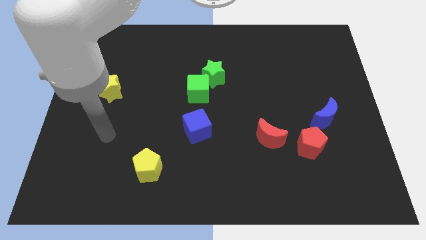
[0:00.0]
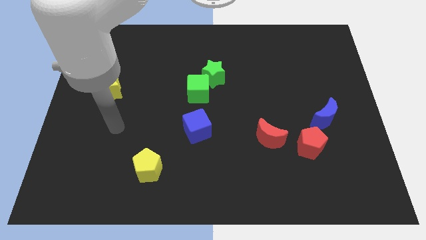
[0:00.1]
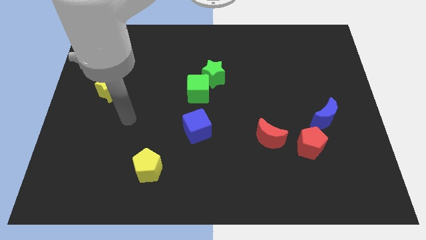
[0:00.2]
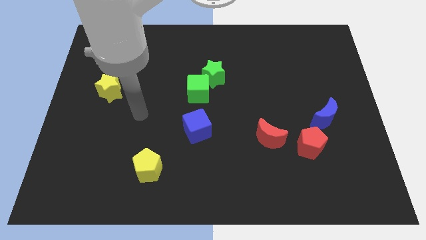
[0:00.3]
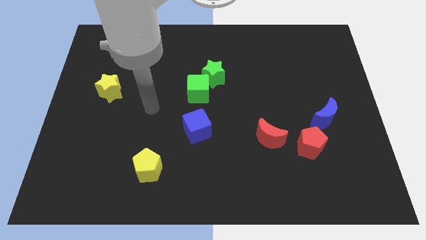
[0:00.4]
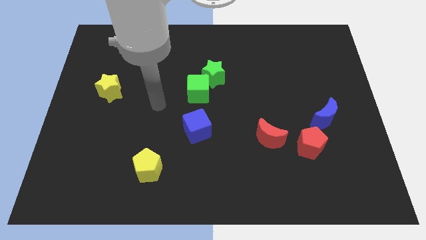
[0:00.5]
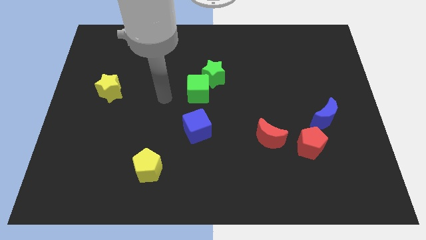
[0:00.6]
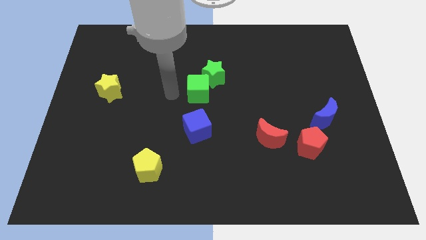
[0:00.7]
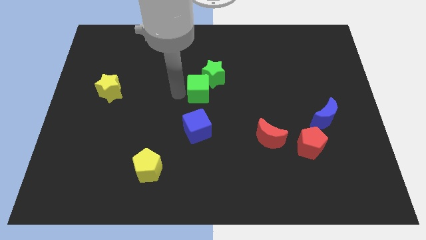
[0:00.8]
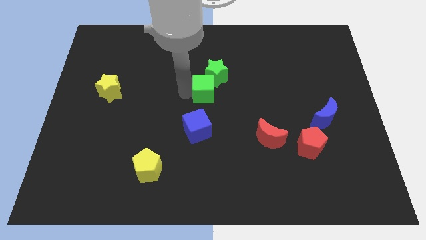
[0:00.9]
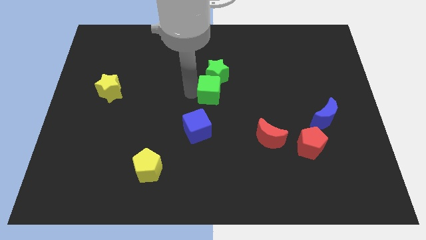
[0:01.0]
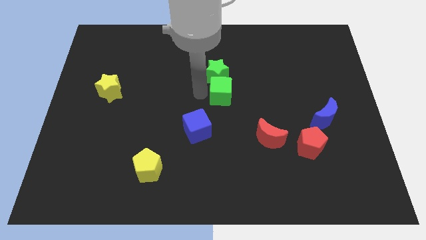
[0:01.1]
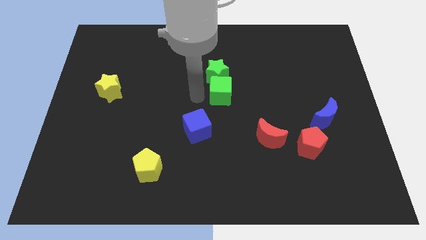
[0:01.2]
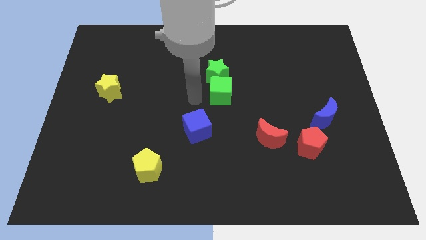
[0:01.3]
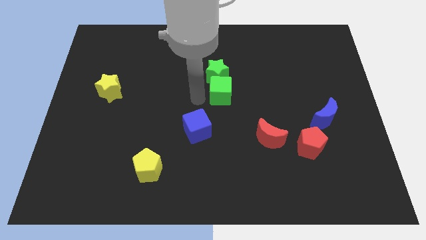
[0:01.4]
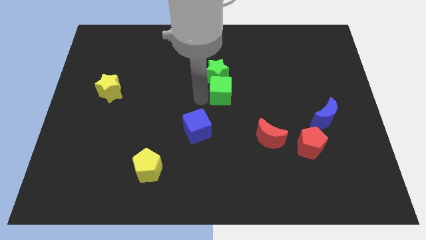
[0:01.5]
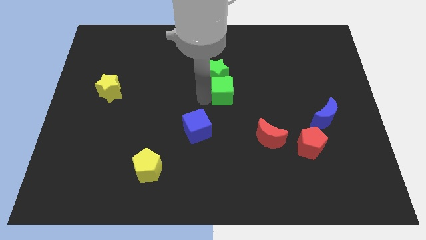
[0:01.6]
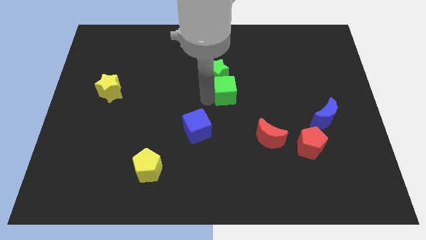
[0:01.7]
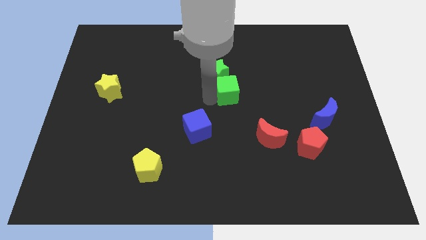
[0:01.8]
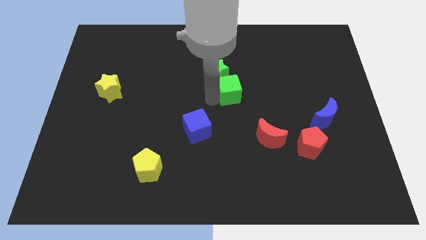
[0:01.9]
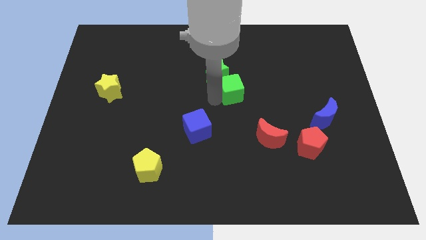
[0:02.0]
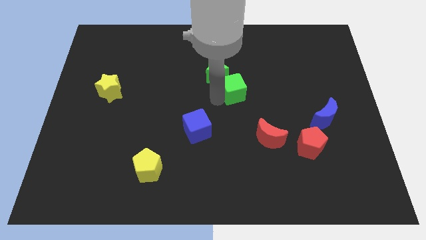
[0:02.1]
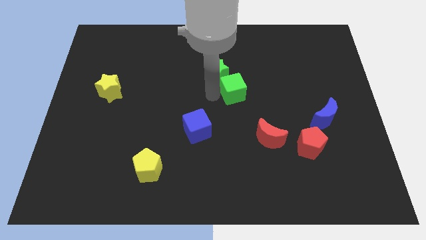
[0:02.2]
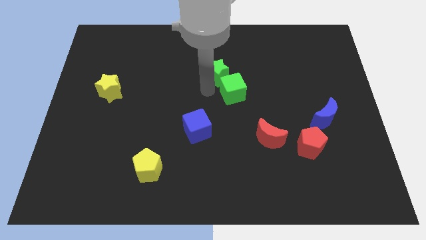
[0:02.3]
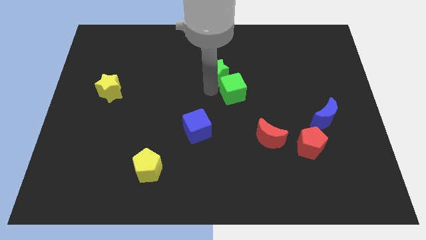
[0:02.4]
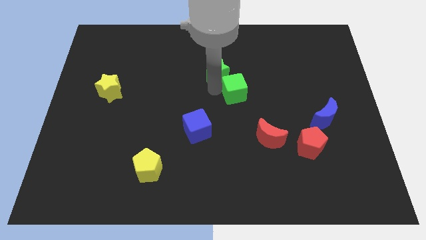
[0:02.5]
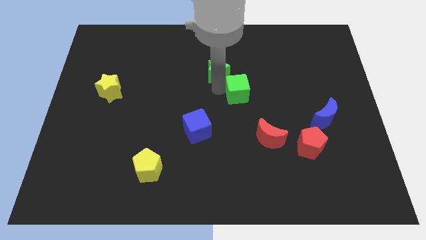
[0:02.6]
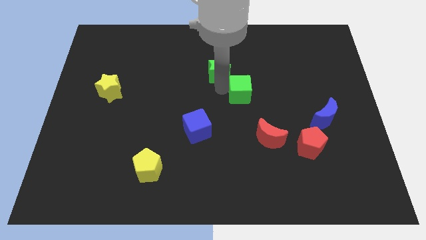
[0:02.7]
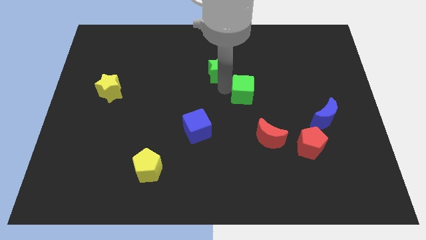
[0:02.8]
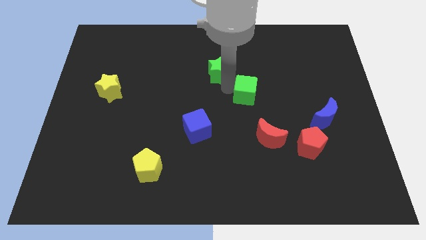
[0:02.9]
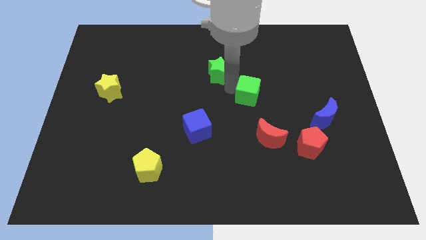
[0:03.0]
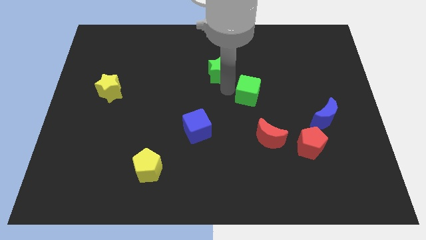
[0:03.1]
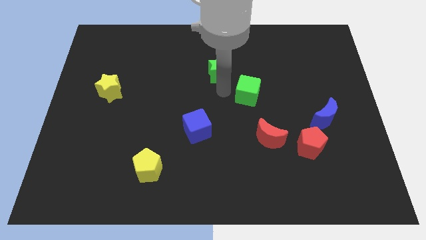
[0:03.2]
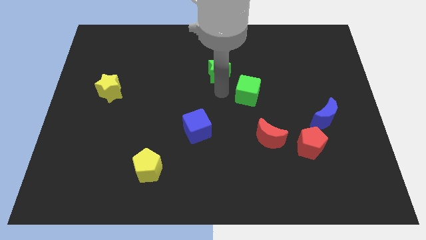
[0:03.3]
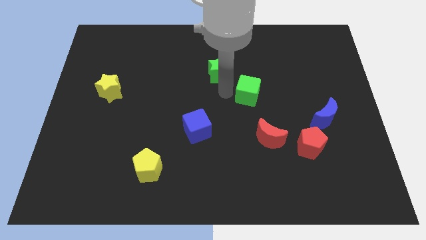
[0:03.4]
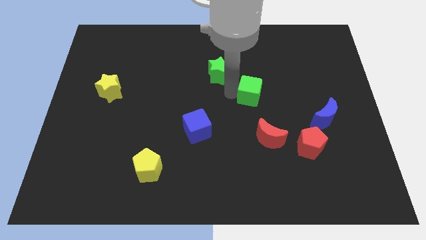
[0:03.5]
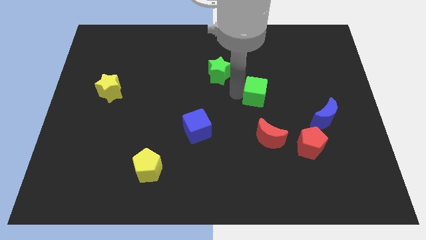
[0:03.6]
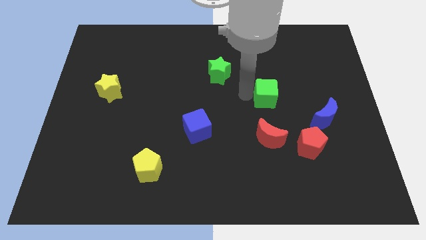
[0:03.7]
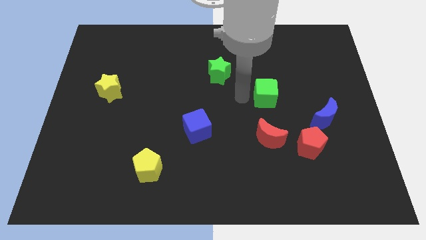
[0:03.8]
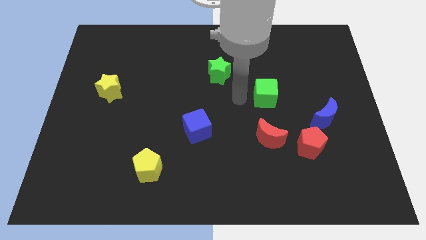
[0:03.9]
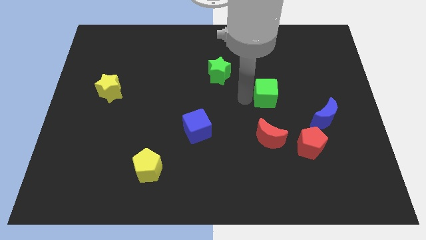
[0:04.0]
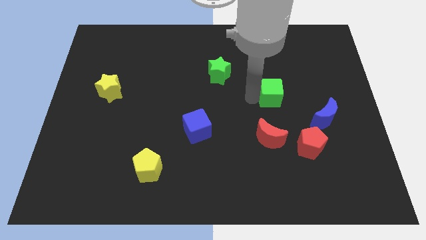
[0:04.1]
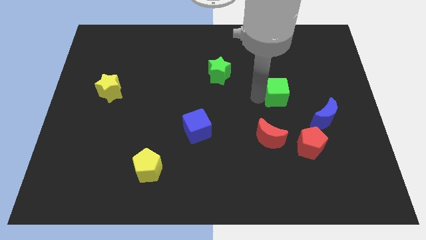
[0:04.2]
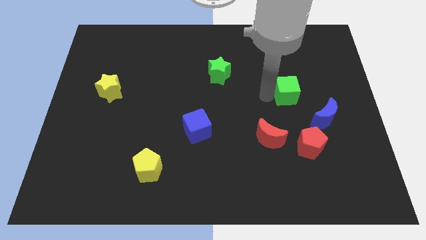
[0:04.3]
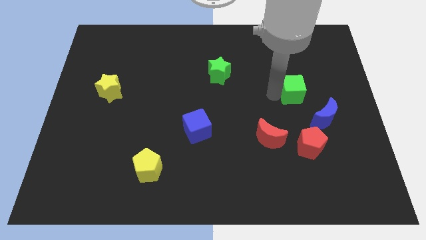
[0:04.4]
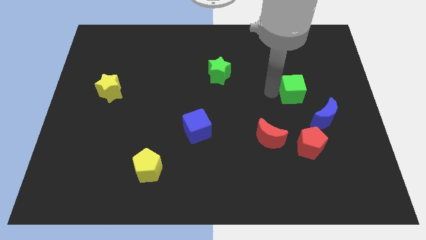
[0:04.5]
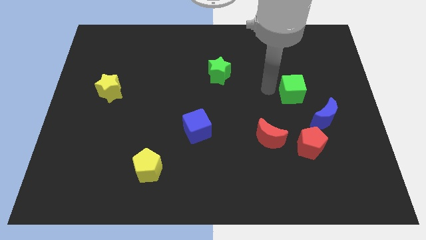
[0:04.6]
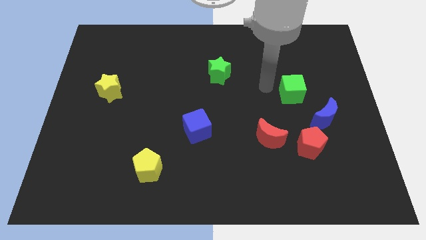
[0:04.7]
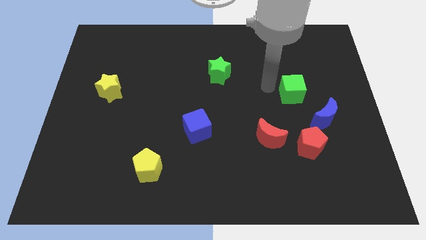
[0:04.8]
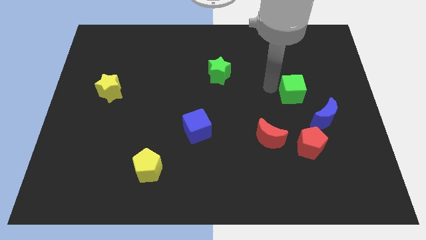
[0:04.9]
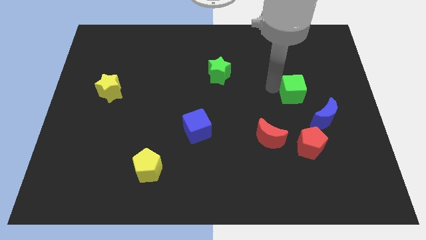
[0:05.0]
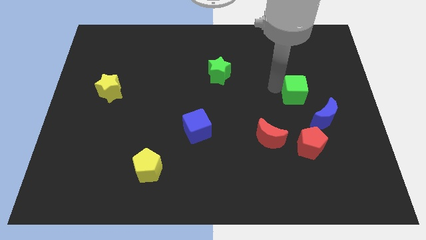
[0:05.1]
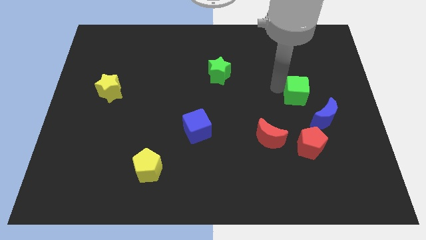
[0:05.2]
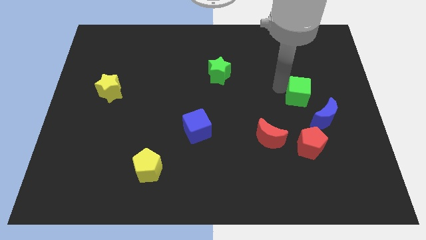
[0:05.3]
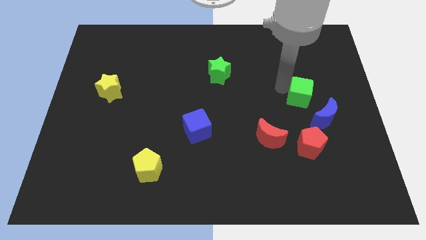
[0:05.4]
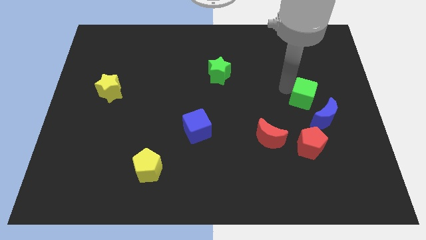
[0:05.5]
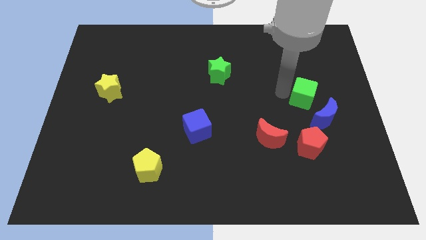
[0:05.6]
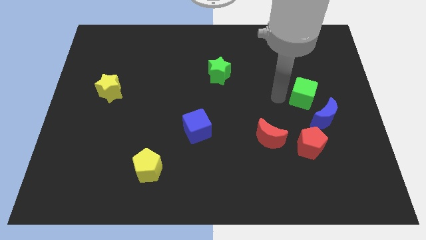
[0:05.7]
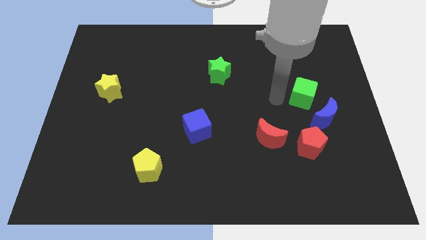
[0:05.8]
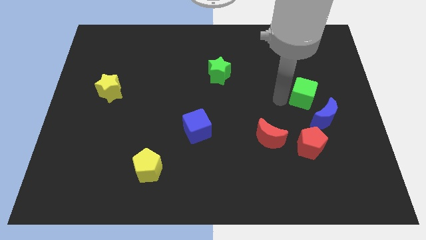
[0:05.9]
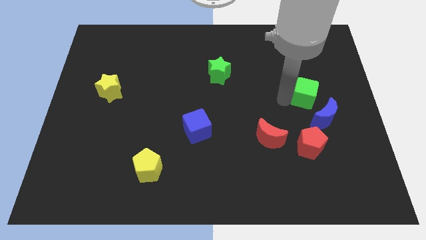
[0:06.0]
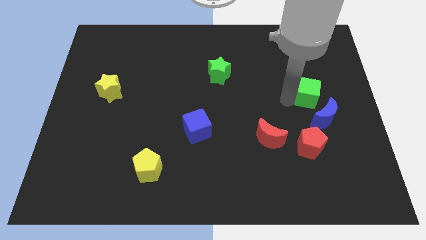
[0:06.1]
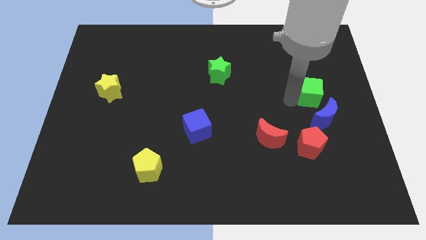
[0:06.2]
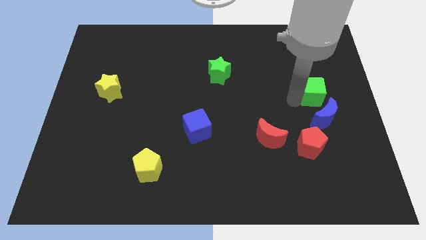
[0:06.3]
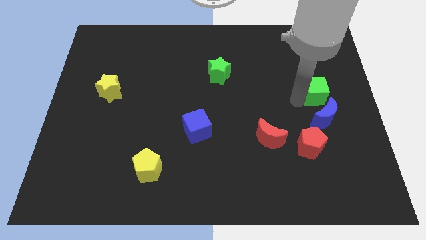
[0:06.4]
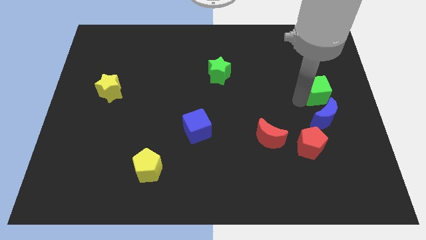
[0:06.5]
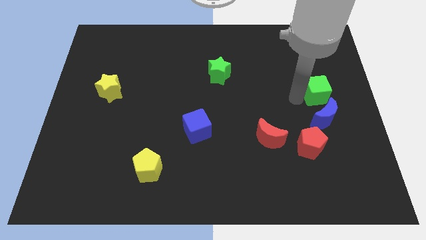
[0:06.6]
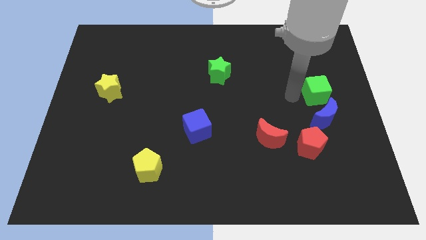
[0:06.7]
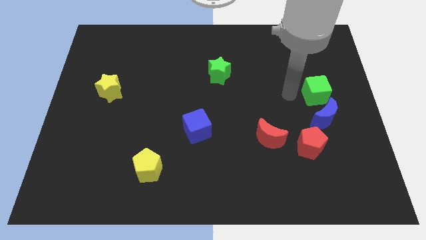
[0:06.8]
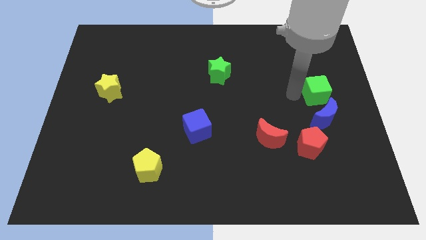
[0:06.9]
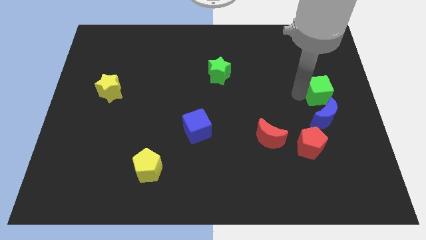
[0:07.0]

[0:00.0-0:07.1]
slide the green cube to the right side of the board

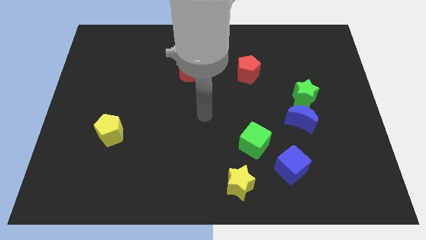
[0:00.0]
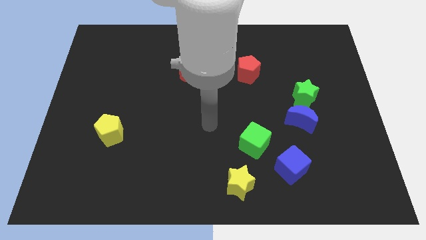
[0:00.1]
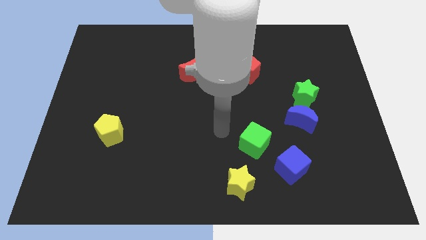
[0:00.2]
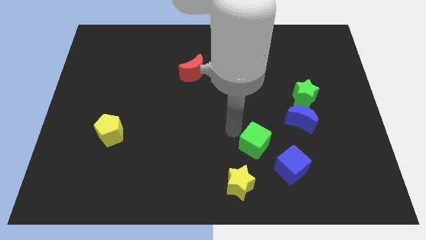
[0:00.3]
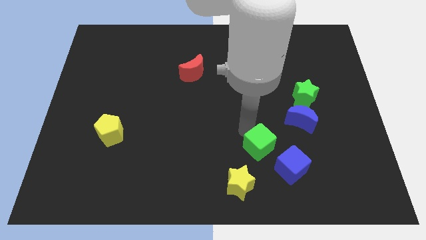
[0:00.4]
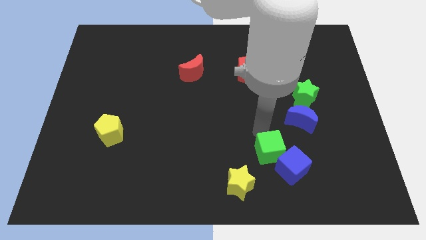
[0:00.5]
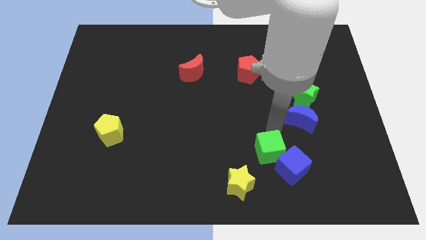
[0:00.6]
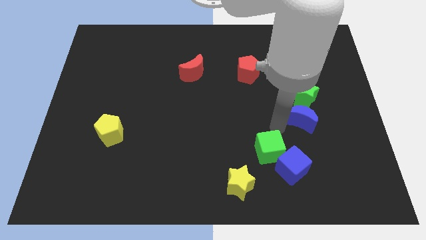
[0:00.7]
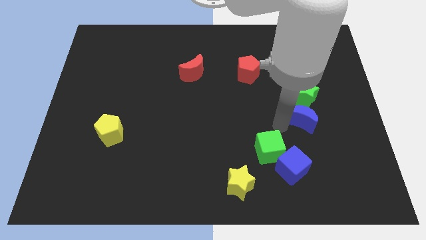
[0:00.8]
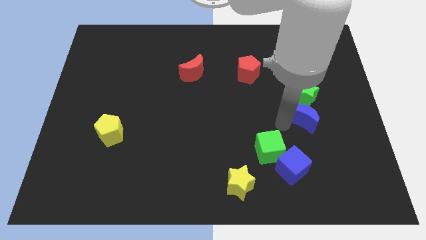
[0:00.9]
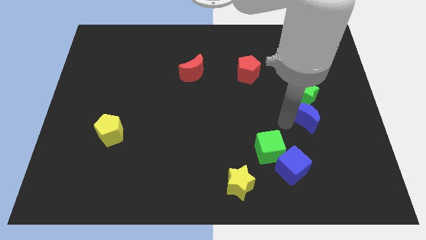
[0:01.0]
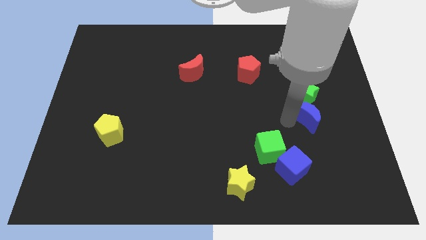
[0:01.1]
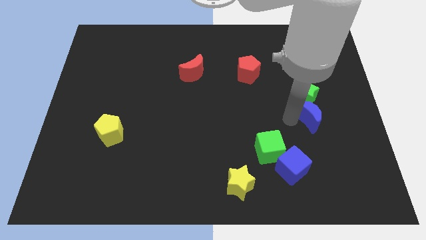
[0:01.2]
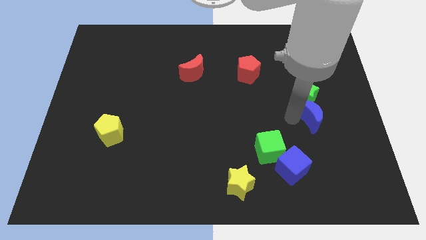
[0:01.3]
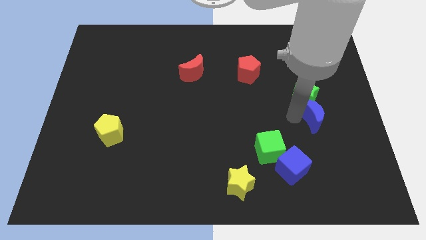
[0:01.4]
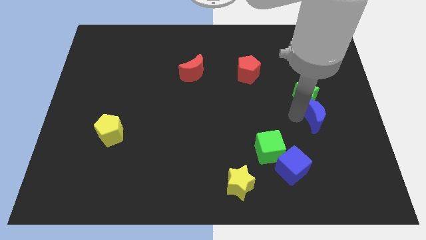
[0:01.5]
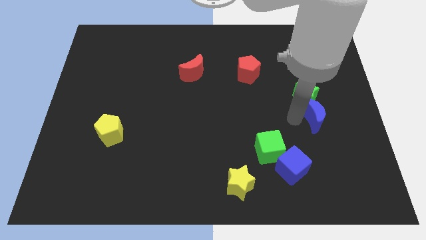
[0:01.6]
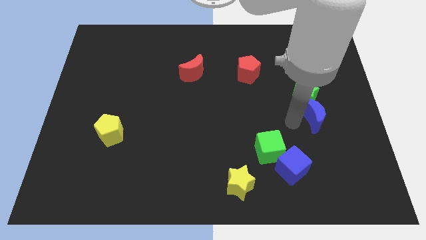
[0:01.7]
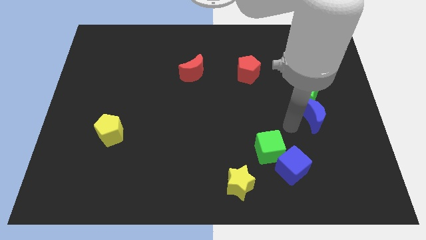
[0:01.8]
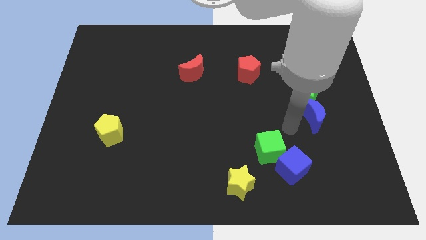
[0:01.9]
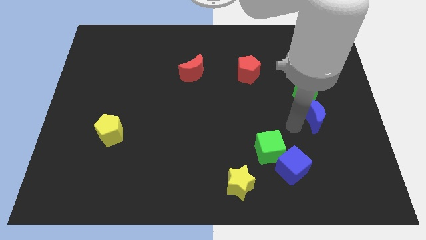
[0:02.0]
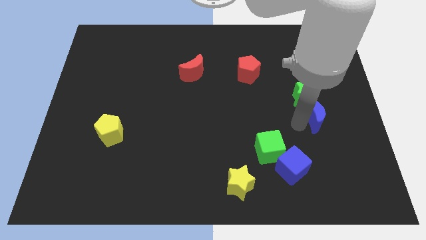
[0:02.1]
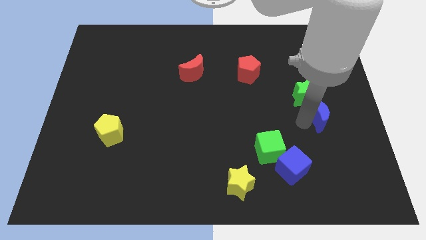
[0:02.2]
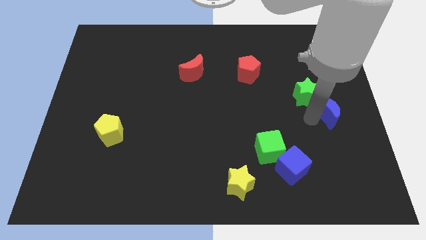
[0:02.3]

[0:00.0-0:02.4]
move the blue moon to the right side of the board
